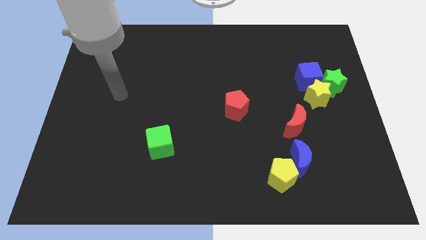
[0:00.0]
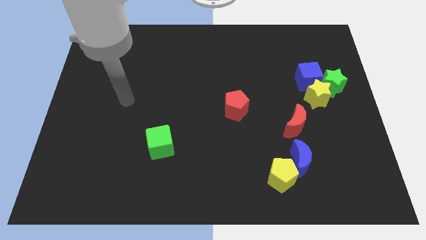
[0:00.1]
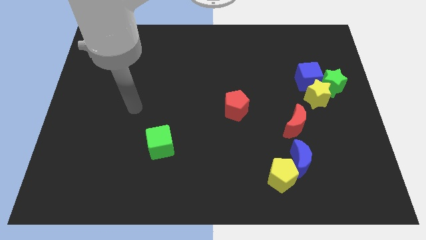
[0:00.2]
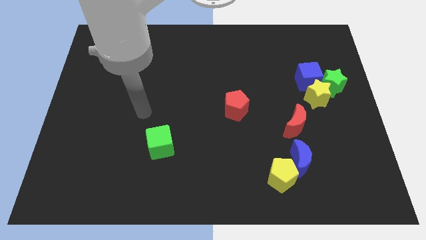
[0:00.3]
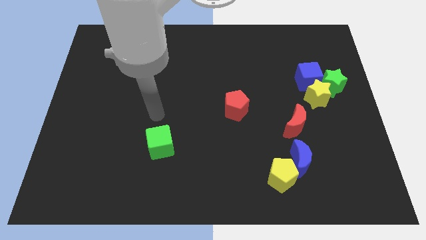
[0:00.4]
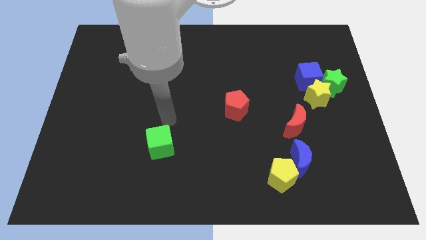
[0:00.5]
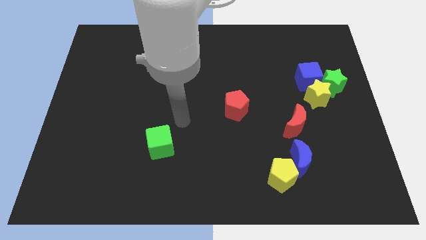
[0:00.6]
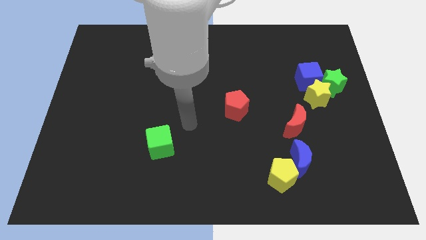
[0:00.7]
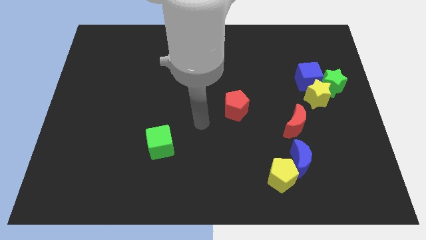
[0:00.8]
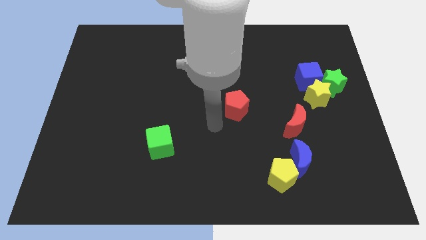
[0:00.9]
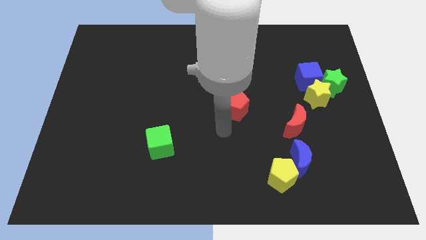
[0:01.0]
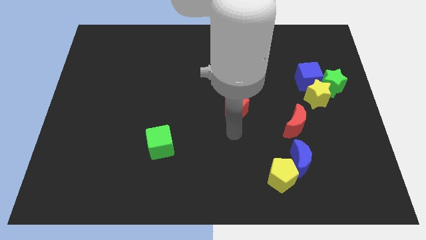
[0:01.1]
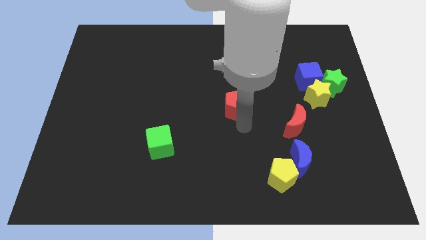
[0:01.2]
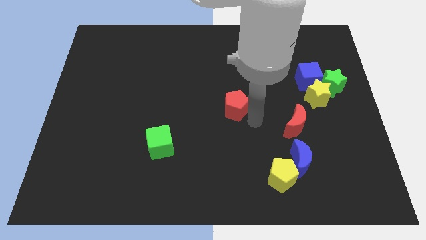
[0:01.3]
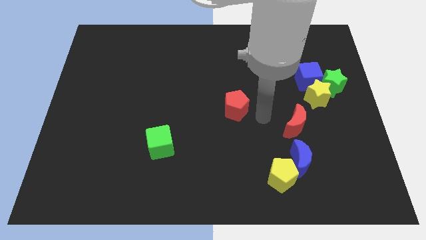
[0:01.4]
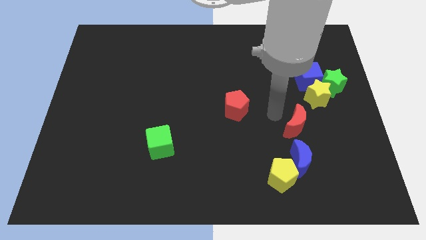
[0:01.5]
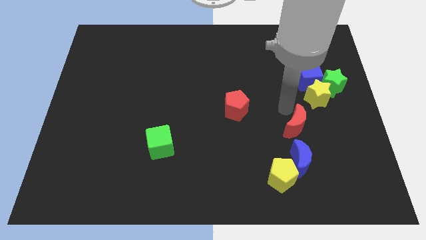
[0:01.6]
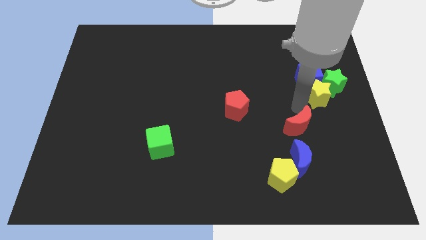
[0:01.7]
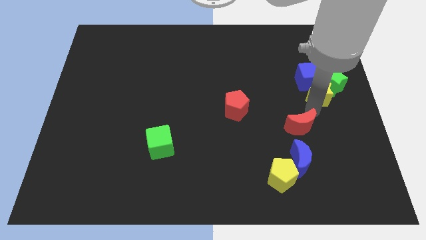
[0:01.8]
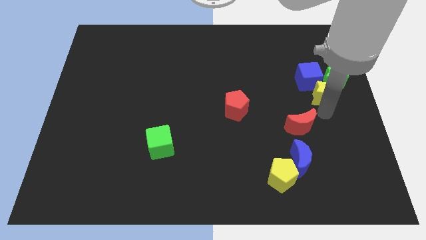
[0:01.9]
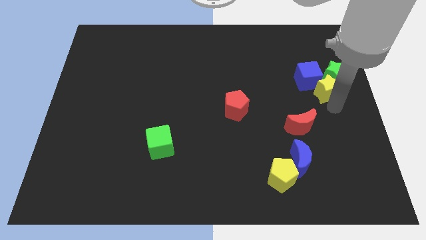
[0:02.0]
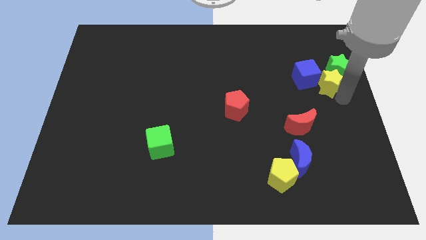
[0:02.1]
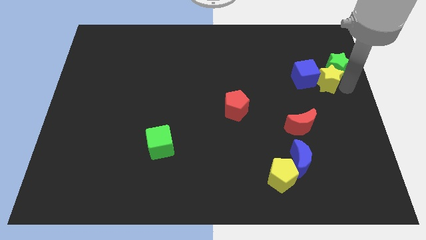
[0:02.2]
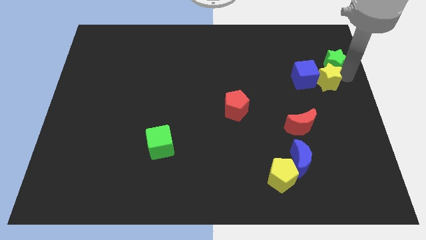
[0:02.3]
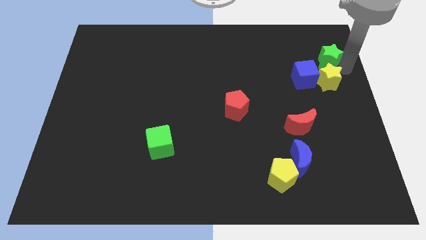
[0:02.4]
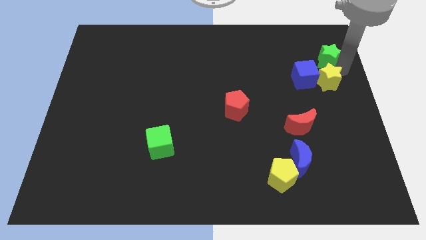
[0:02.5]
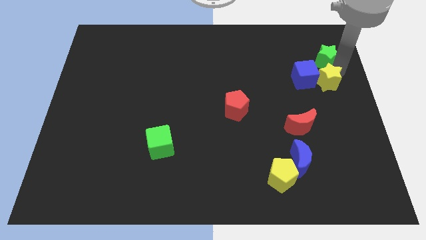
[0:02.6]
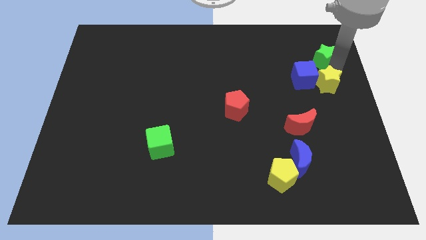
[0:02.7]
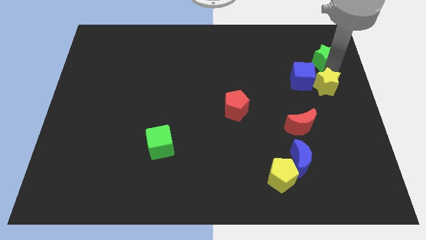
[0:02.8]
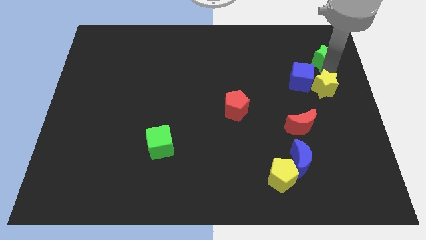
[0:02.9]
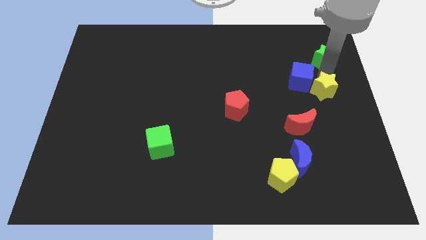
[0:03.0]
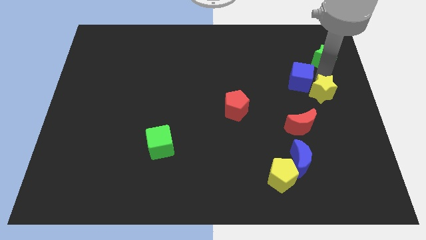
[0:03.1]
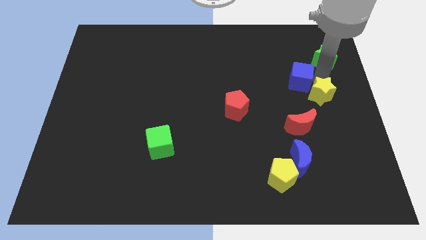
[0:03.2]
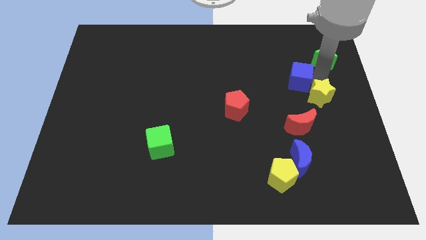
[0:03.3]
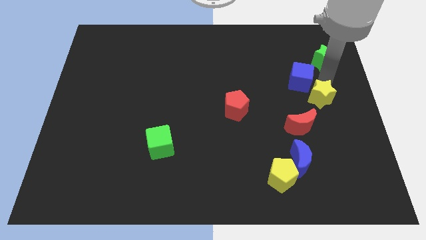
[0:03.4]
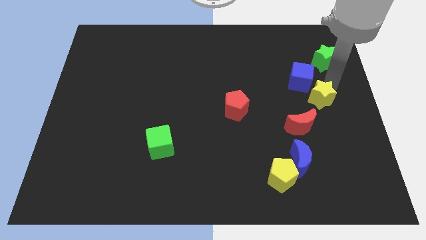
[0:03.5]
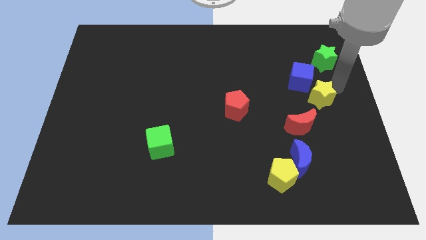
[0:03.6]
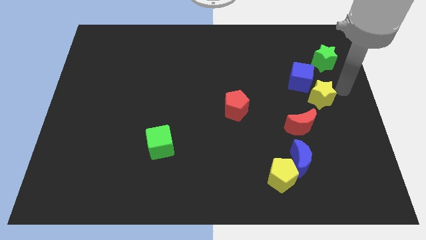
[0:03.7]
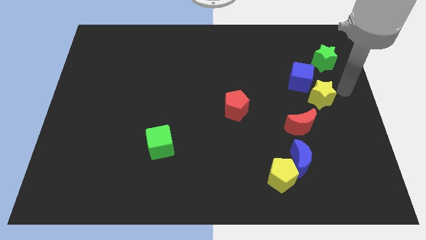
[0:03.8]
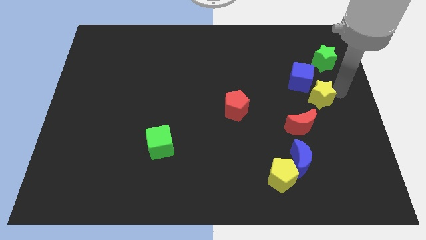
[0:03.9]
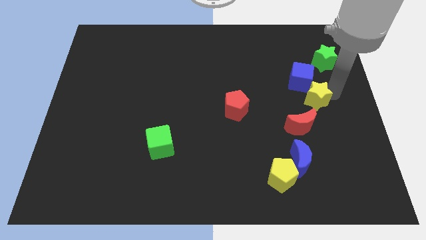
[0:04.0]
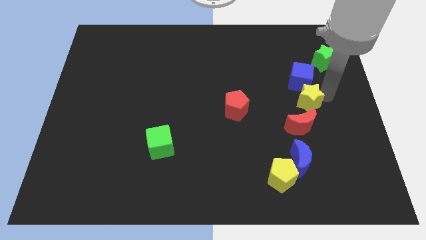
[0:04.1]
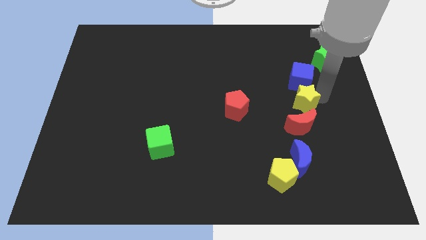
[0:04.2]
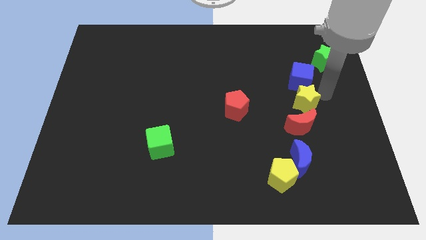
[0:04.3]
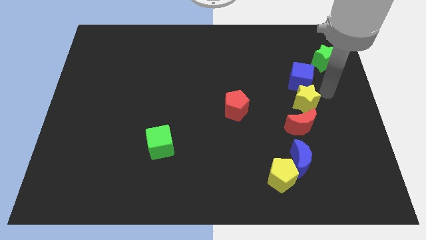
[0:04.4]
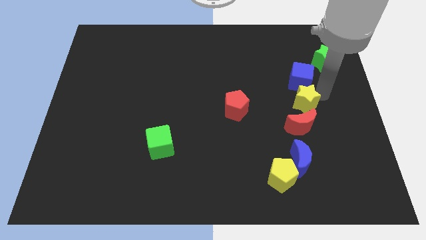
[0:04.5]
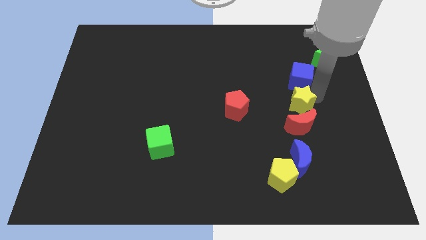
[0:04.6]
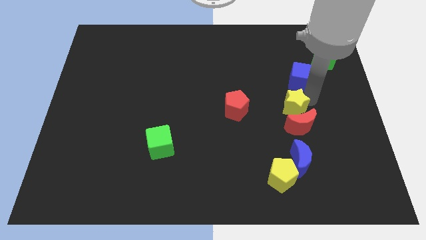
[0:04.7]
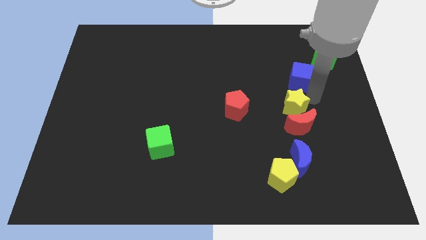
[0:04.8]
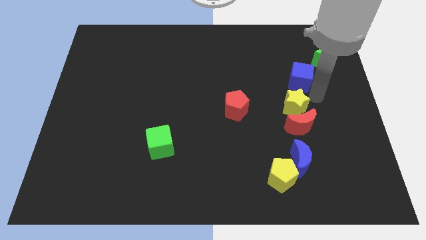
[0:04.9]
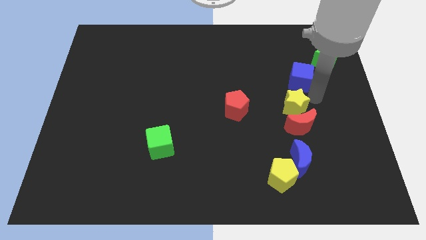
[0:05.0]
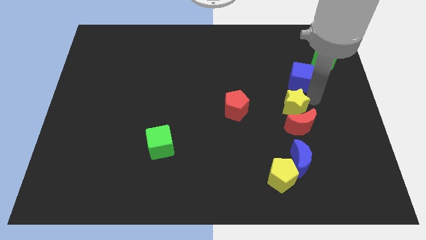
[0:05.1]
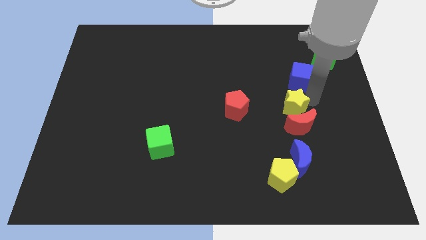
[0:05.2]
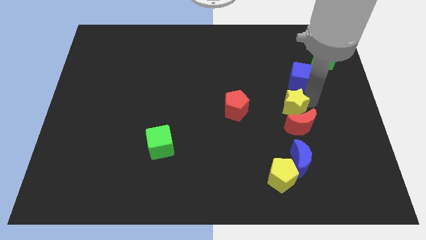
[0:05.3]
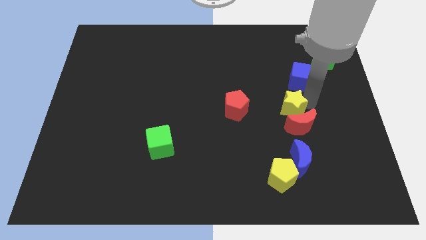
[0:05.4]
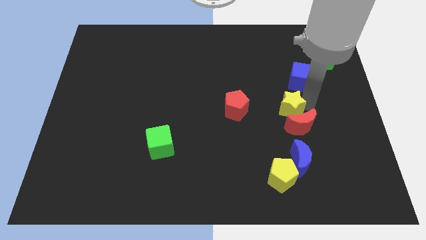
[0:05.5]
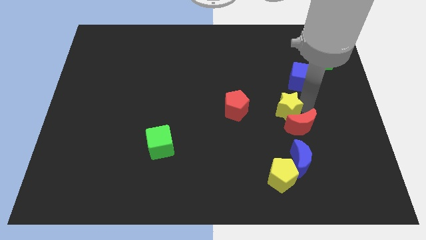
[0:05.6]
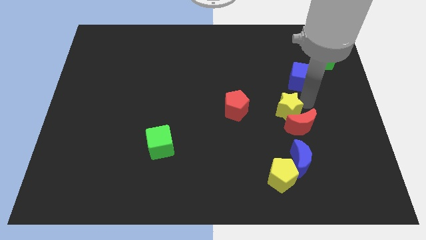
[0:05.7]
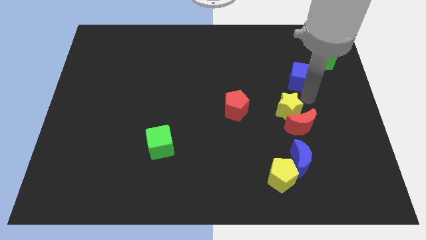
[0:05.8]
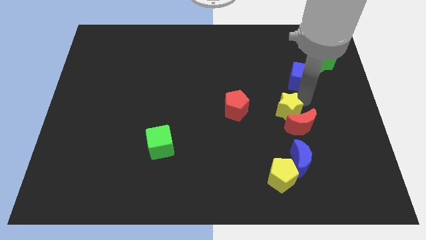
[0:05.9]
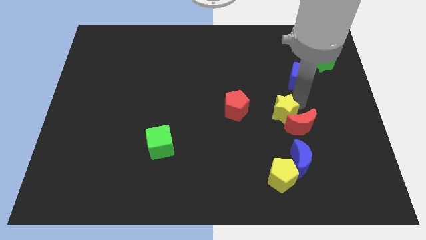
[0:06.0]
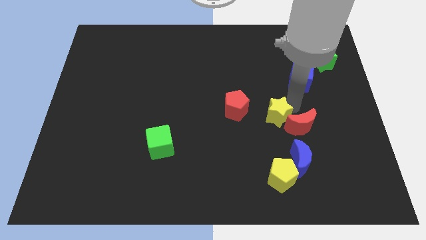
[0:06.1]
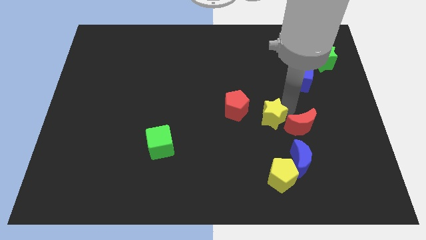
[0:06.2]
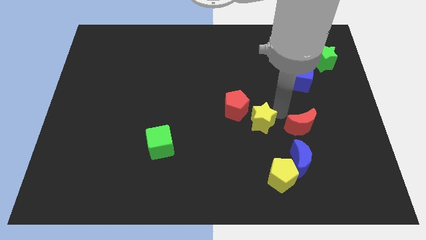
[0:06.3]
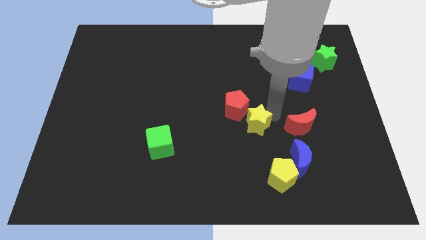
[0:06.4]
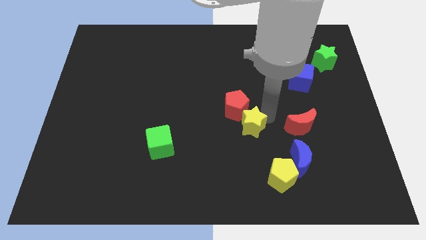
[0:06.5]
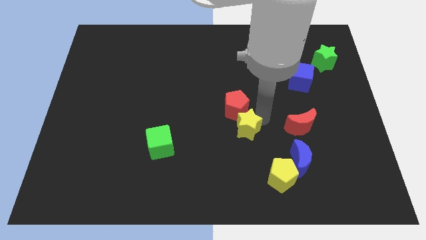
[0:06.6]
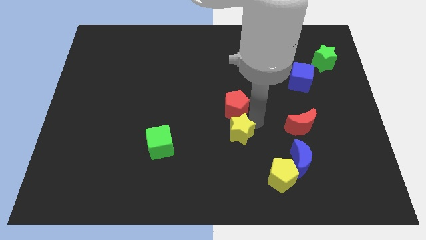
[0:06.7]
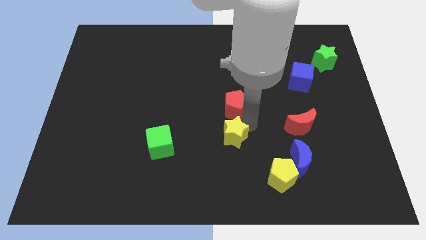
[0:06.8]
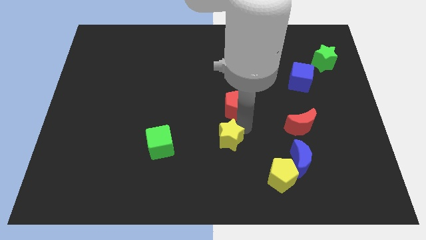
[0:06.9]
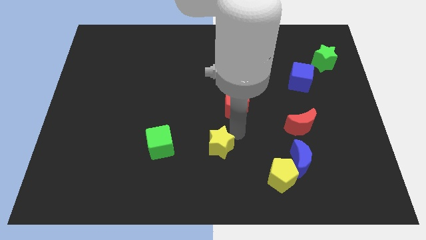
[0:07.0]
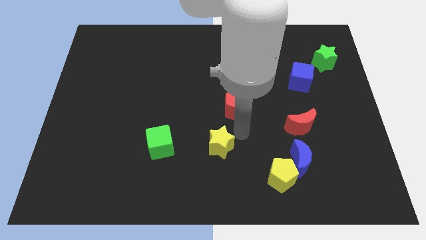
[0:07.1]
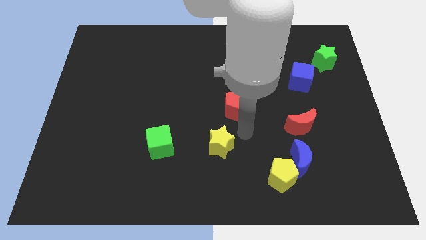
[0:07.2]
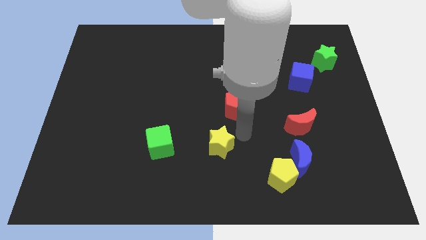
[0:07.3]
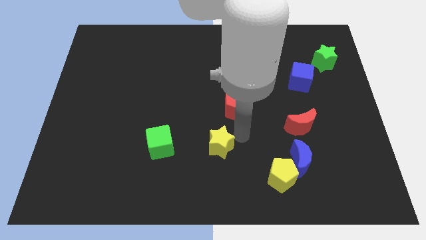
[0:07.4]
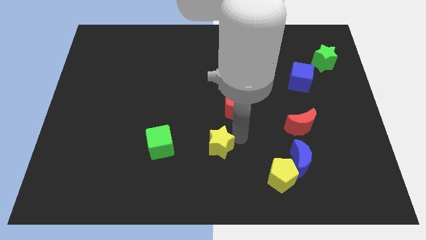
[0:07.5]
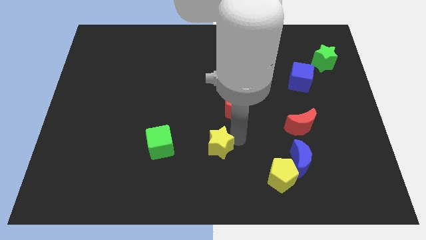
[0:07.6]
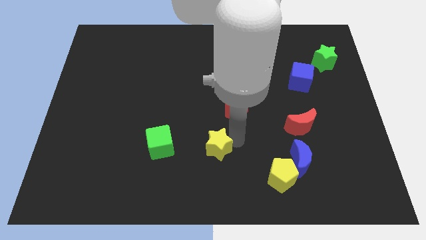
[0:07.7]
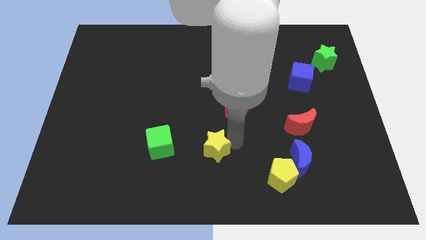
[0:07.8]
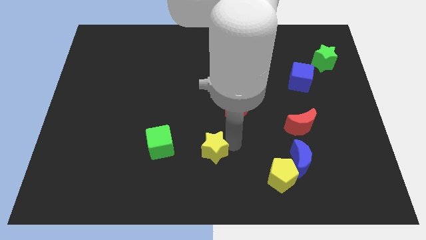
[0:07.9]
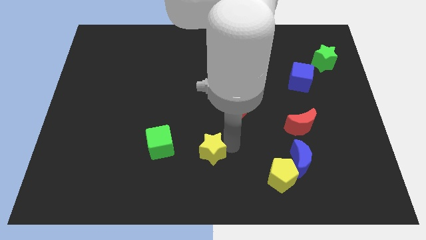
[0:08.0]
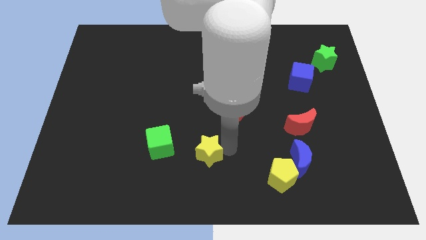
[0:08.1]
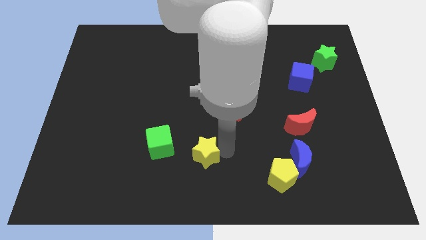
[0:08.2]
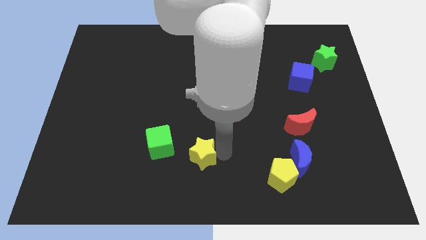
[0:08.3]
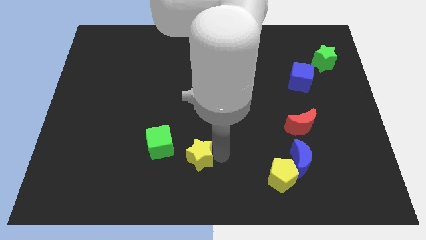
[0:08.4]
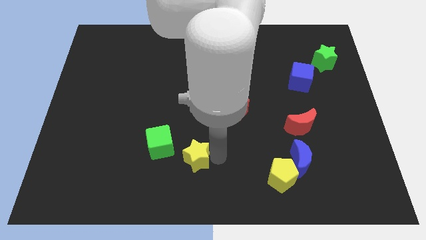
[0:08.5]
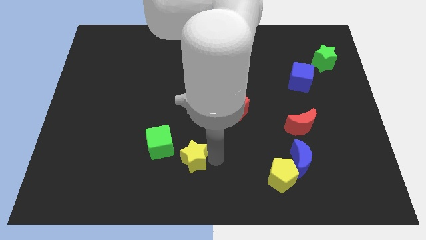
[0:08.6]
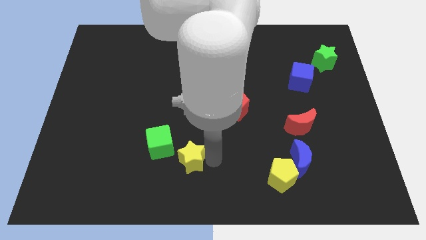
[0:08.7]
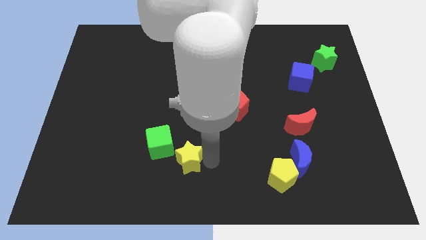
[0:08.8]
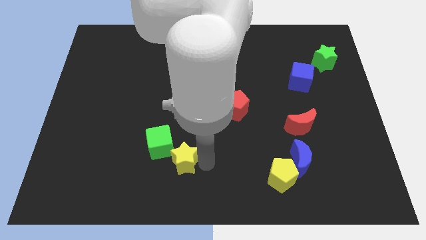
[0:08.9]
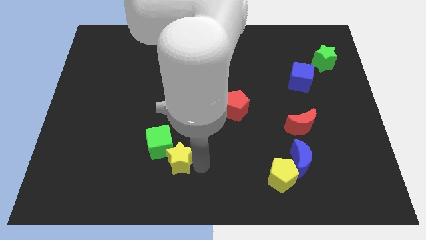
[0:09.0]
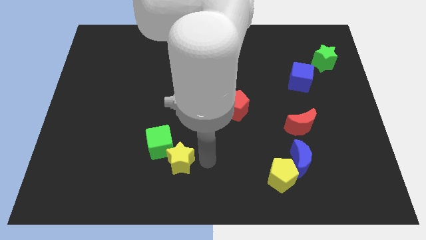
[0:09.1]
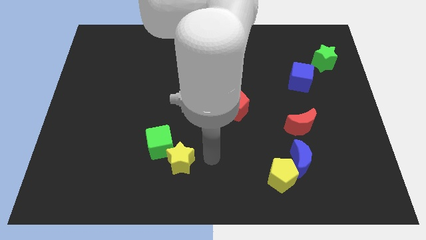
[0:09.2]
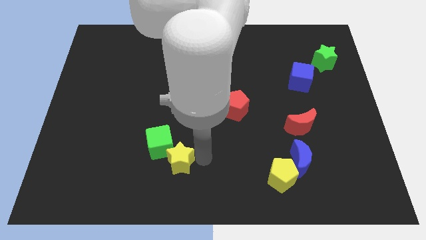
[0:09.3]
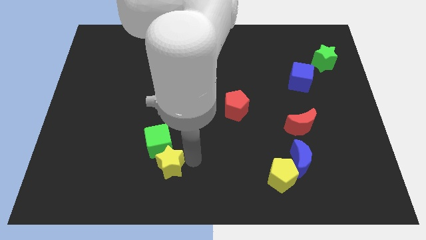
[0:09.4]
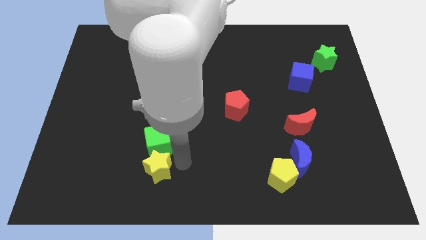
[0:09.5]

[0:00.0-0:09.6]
push the yellow star to the bottom left side of the green cube
